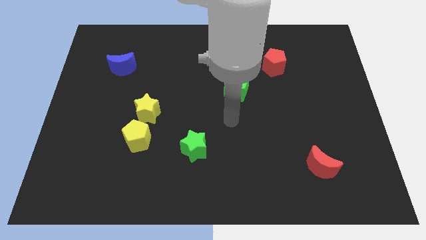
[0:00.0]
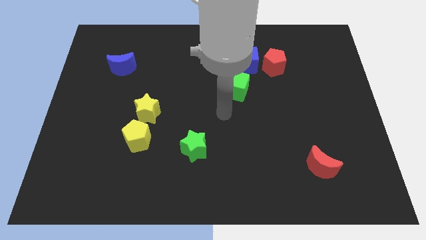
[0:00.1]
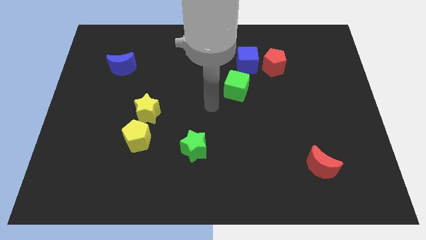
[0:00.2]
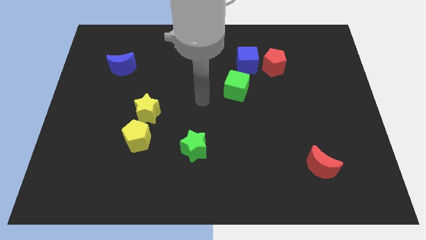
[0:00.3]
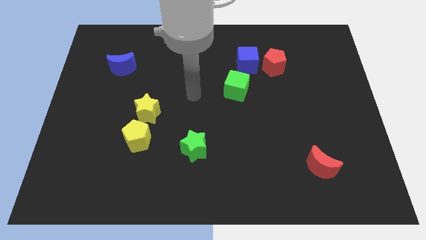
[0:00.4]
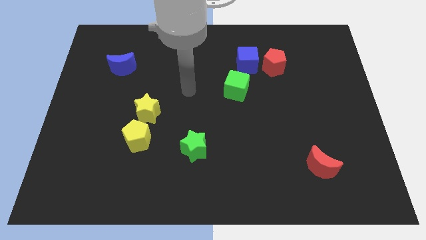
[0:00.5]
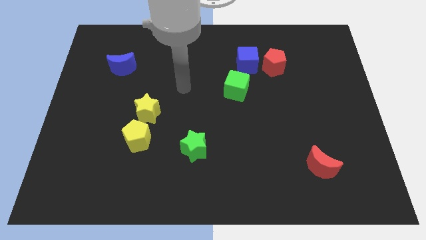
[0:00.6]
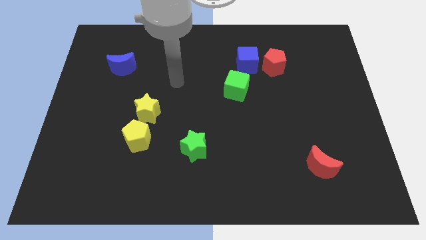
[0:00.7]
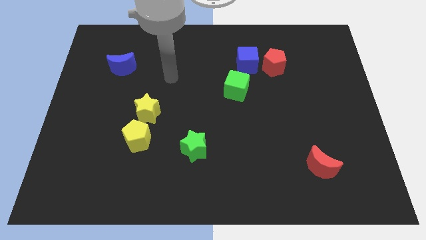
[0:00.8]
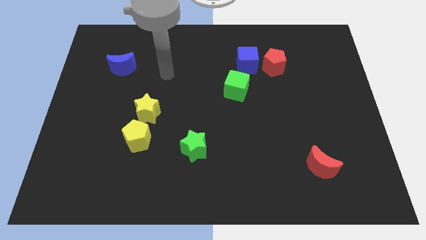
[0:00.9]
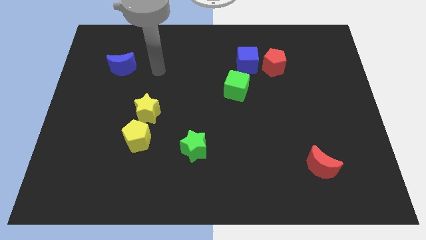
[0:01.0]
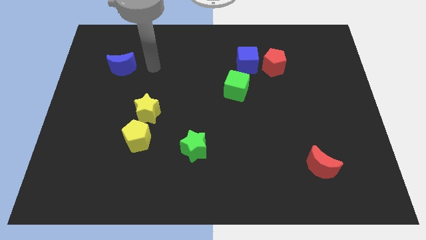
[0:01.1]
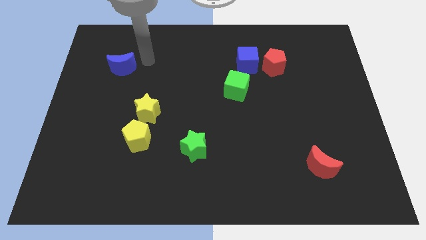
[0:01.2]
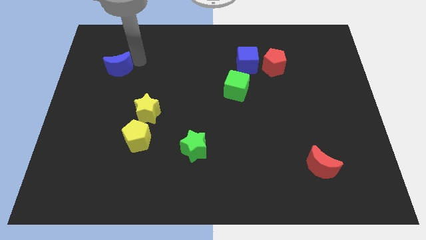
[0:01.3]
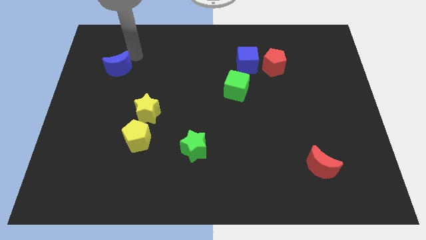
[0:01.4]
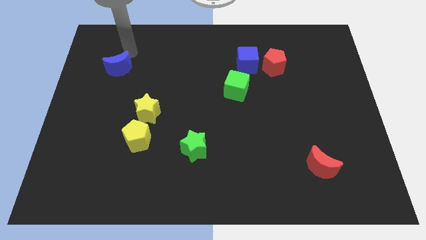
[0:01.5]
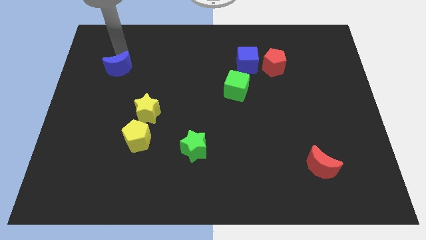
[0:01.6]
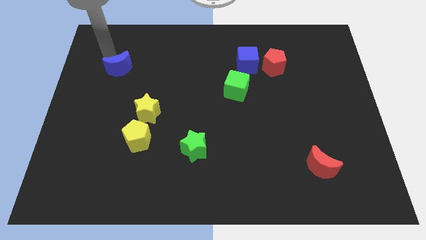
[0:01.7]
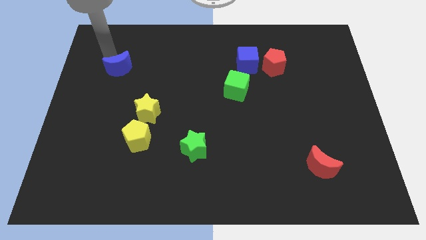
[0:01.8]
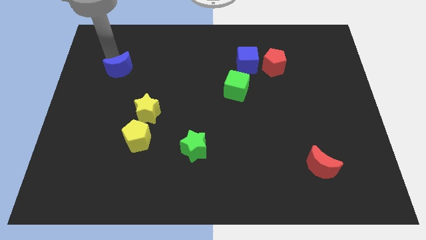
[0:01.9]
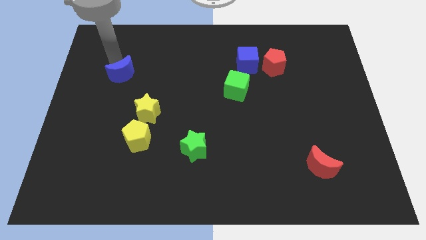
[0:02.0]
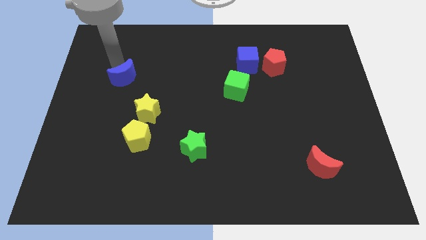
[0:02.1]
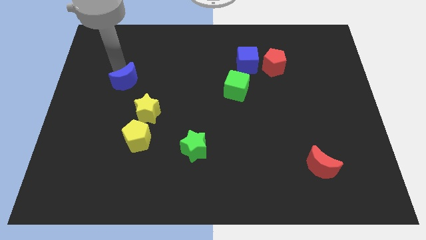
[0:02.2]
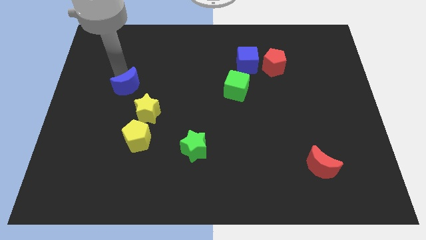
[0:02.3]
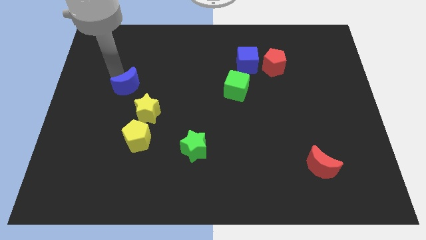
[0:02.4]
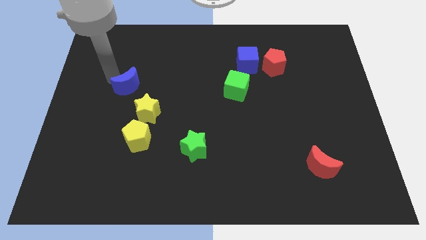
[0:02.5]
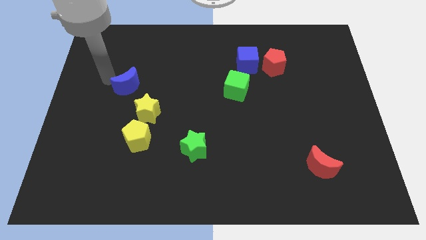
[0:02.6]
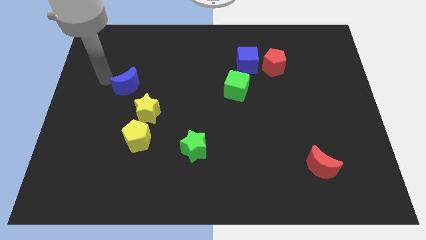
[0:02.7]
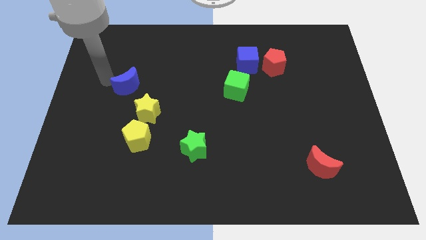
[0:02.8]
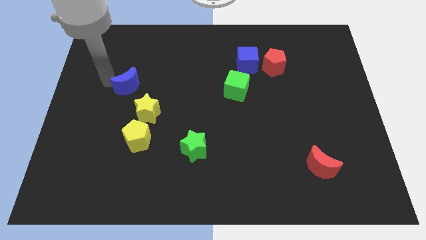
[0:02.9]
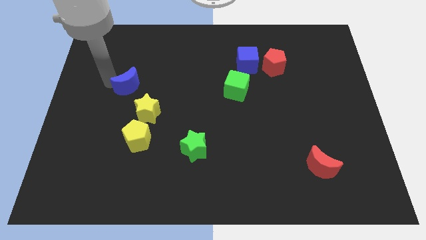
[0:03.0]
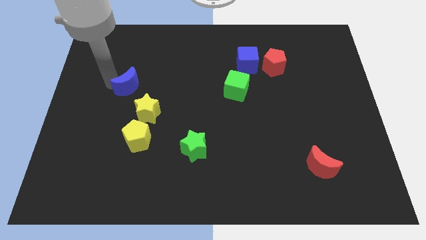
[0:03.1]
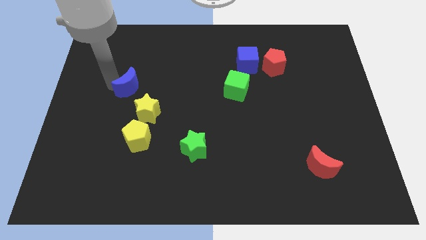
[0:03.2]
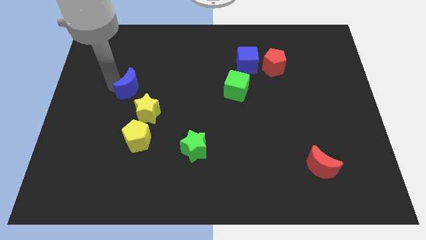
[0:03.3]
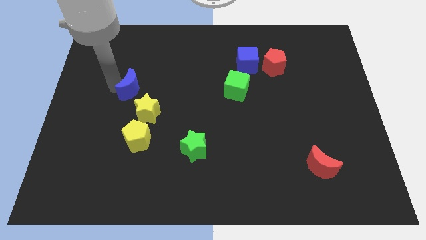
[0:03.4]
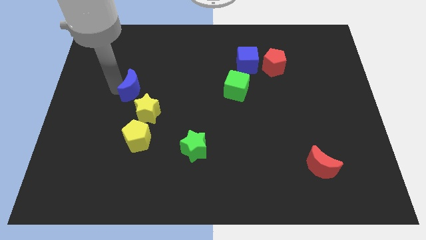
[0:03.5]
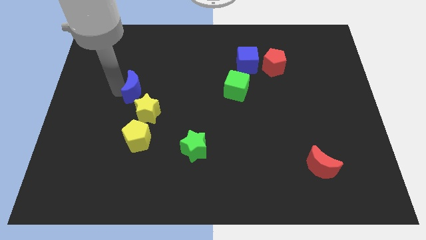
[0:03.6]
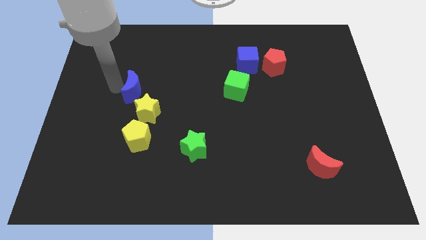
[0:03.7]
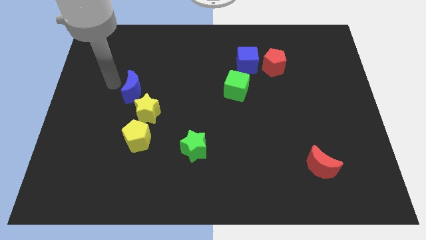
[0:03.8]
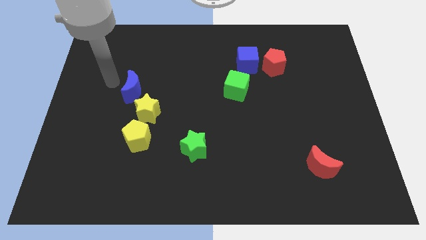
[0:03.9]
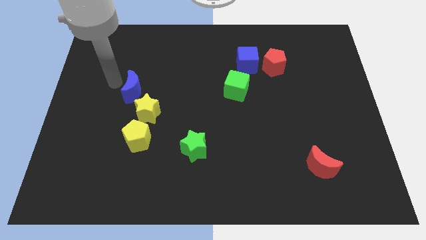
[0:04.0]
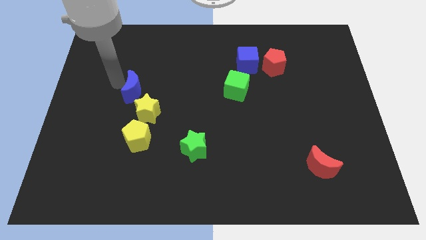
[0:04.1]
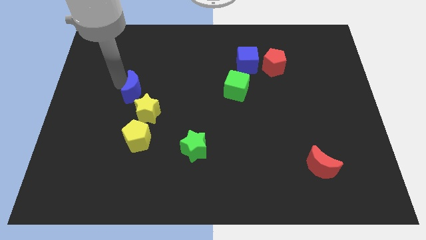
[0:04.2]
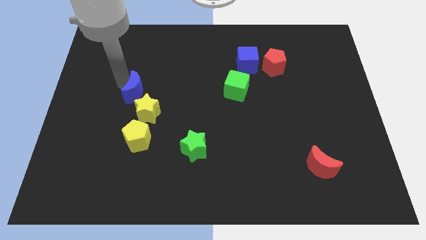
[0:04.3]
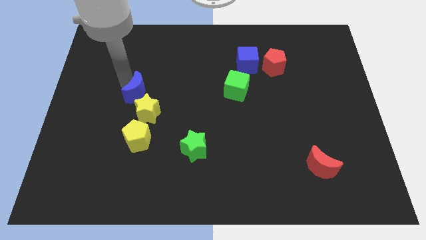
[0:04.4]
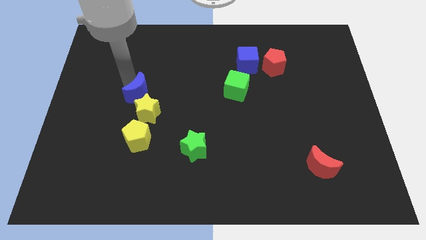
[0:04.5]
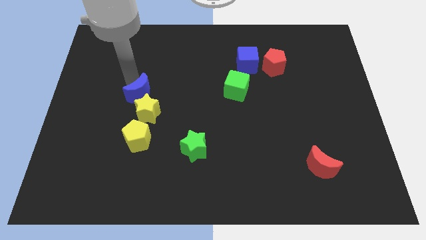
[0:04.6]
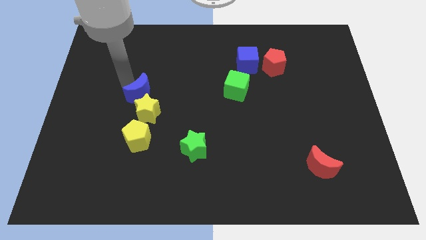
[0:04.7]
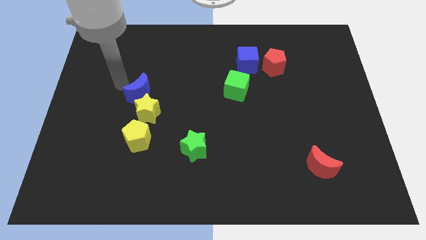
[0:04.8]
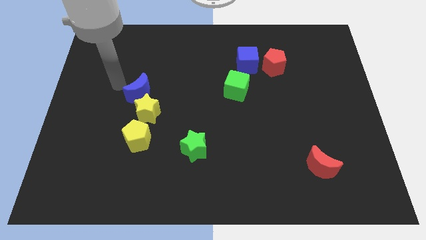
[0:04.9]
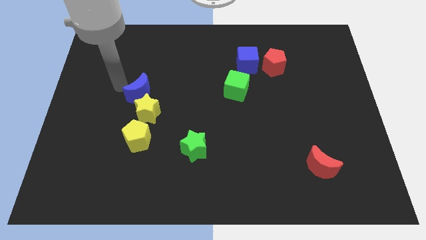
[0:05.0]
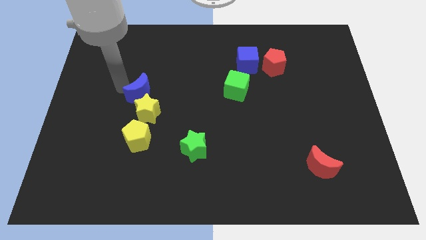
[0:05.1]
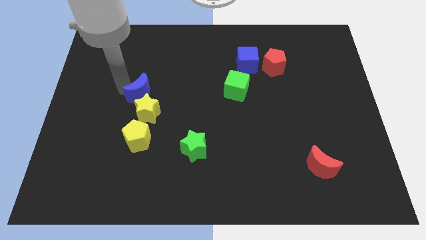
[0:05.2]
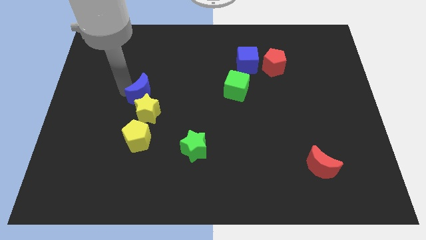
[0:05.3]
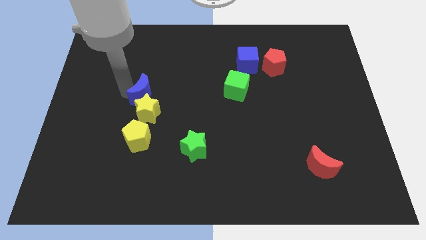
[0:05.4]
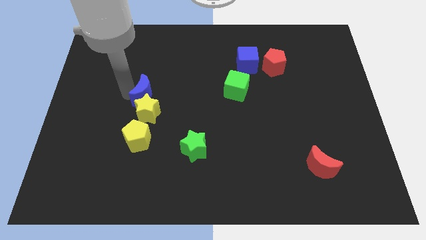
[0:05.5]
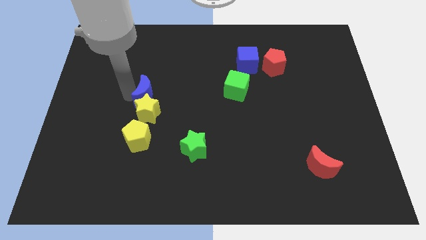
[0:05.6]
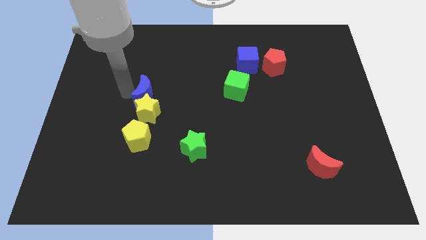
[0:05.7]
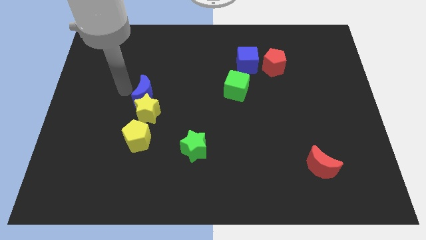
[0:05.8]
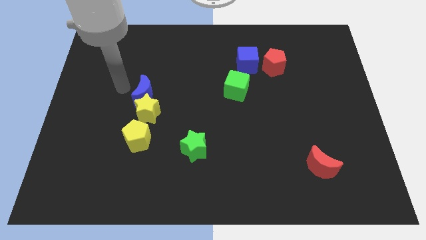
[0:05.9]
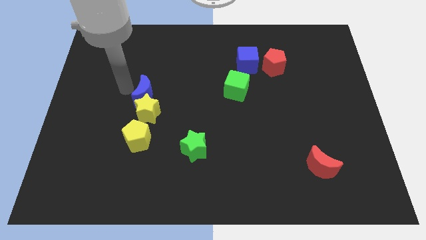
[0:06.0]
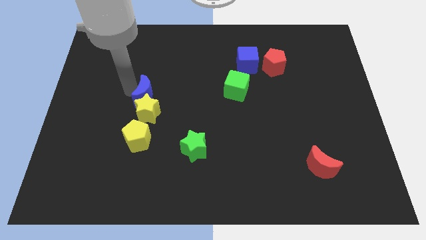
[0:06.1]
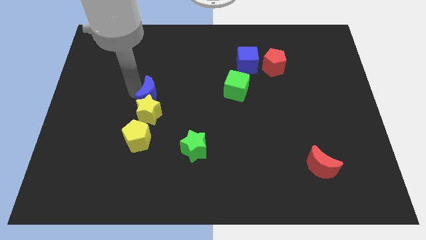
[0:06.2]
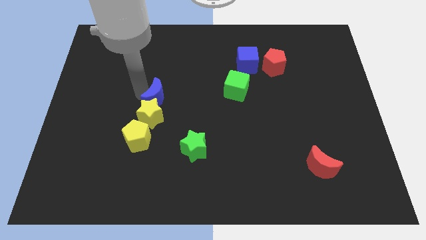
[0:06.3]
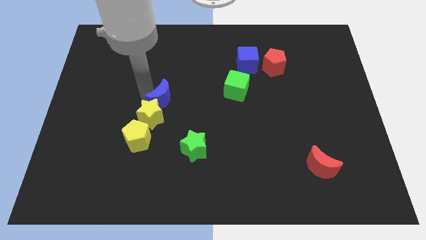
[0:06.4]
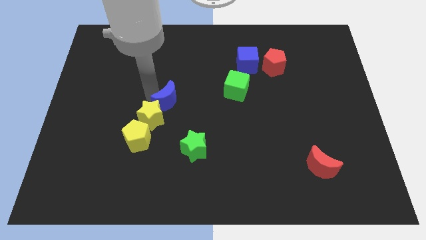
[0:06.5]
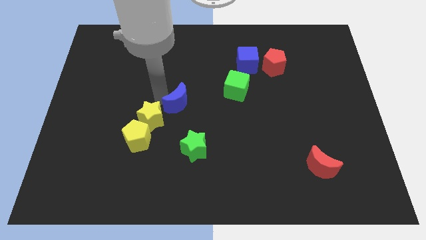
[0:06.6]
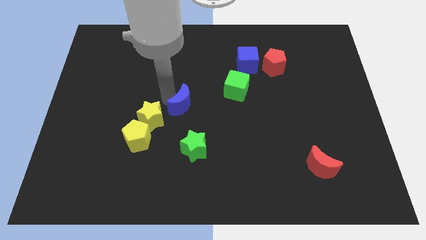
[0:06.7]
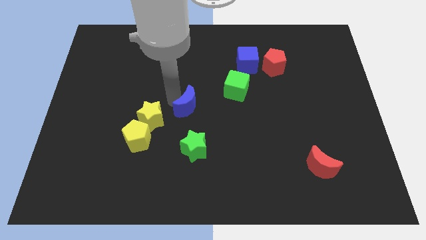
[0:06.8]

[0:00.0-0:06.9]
move the blue moon downwards and to the right

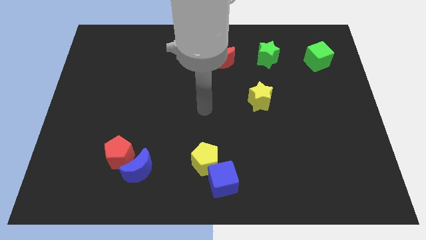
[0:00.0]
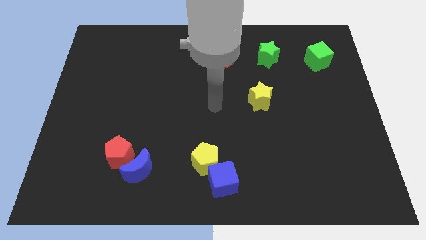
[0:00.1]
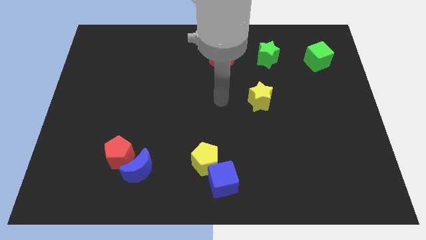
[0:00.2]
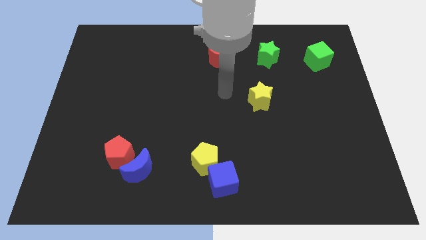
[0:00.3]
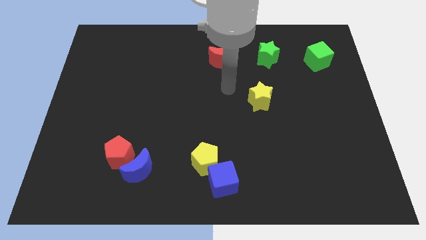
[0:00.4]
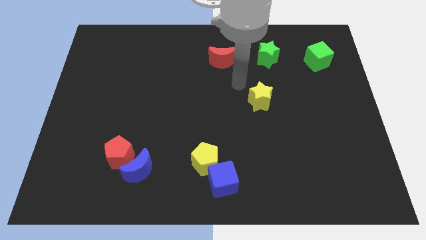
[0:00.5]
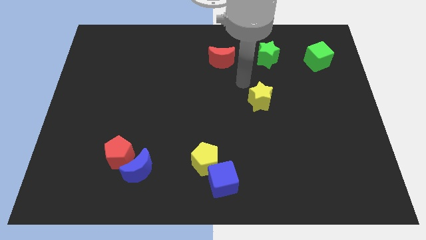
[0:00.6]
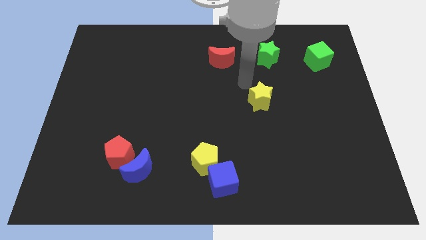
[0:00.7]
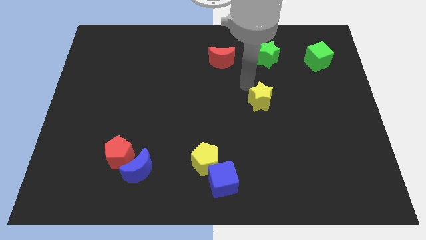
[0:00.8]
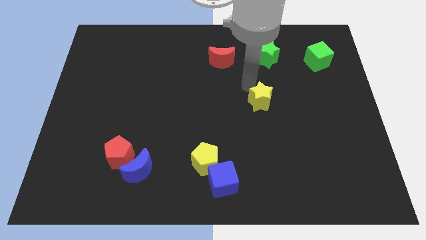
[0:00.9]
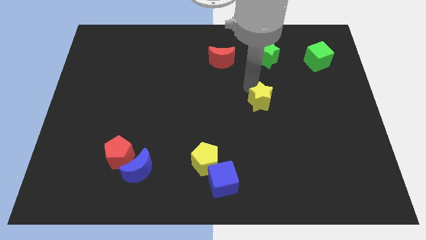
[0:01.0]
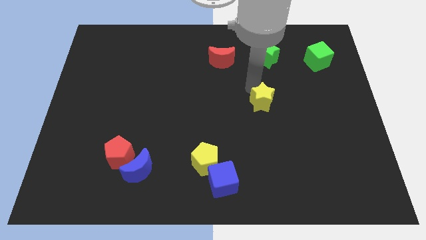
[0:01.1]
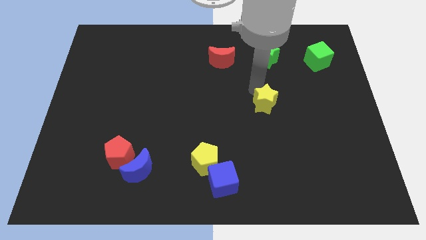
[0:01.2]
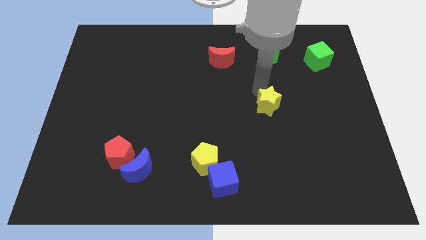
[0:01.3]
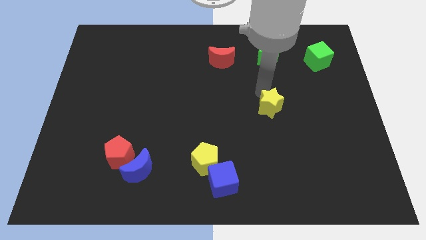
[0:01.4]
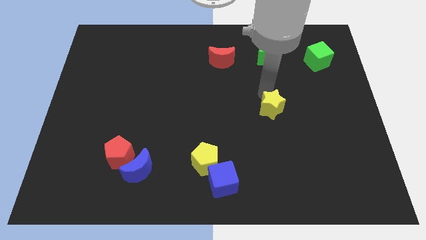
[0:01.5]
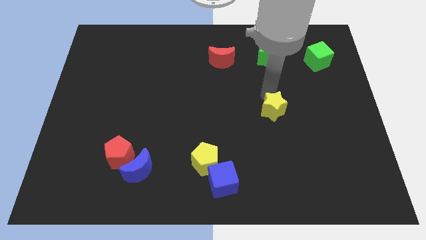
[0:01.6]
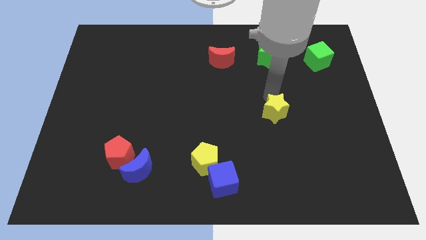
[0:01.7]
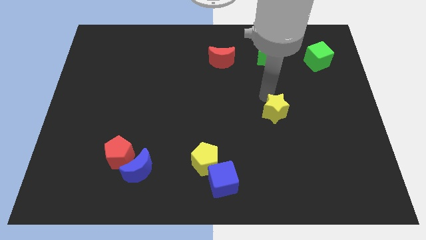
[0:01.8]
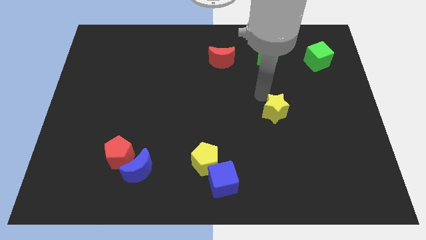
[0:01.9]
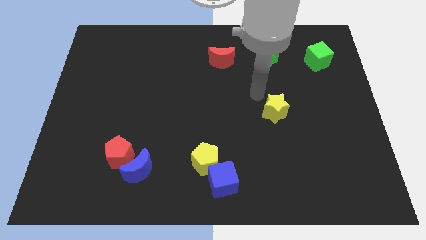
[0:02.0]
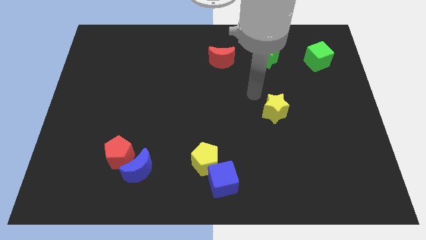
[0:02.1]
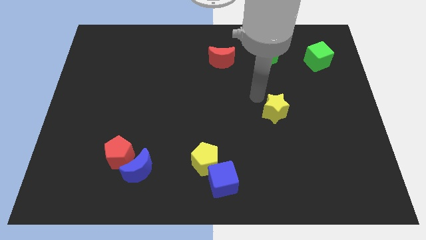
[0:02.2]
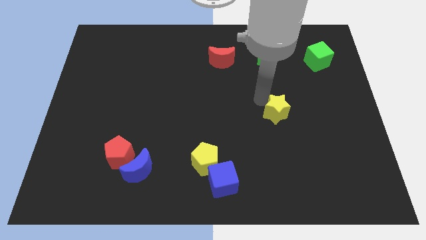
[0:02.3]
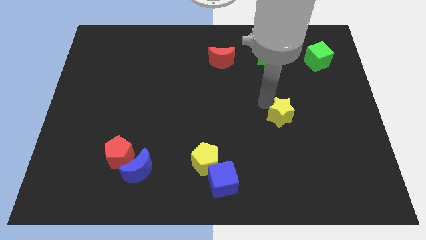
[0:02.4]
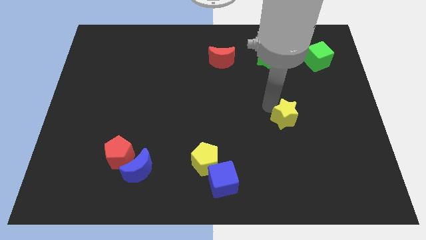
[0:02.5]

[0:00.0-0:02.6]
slide the yellow star downwards and then right slightly
